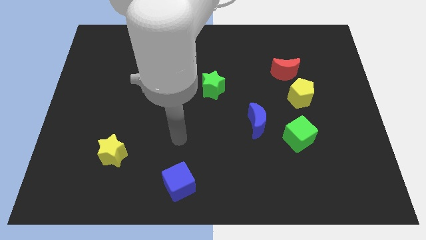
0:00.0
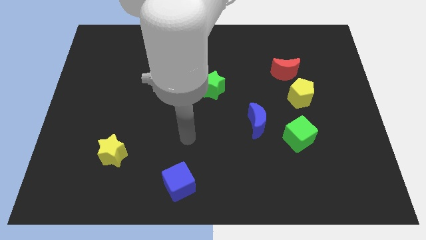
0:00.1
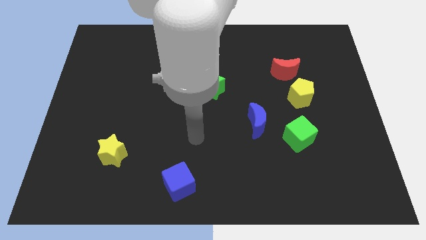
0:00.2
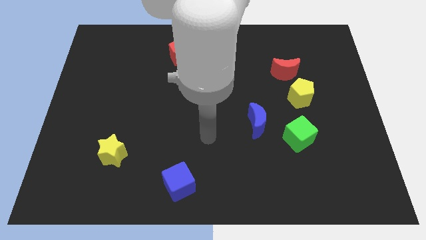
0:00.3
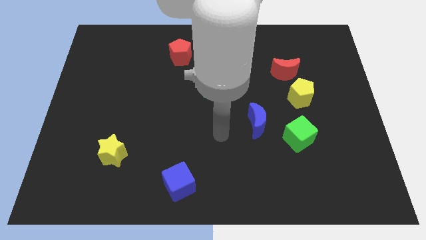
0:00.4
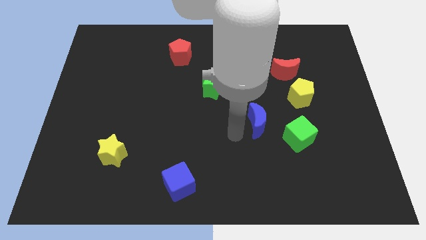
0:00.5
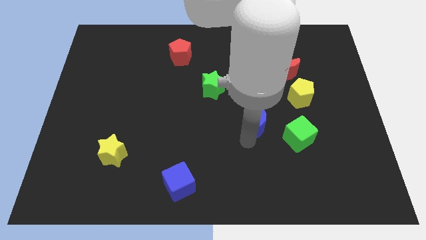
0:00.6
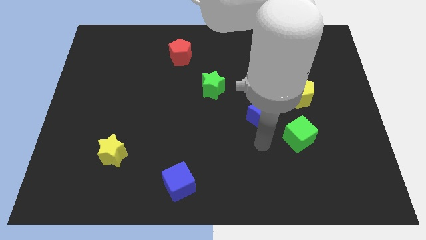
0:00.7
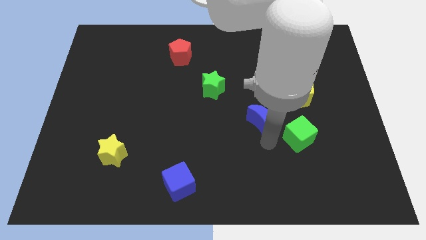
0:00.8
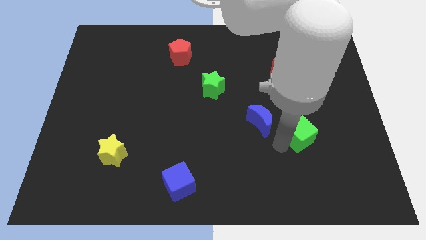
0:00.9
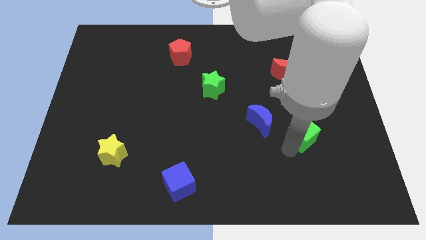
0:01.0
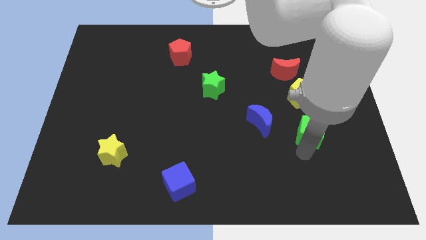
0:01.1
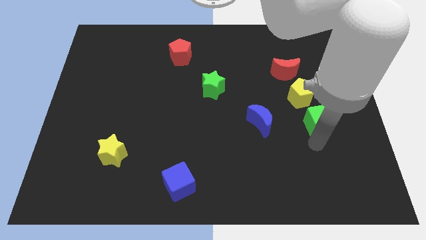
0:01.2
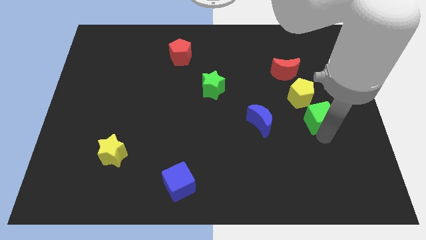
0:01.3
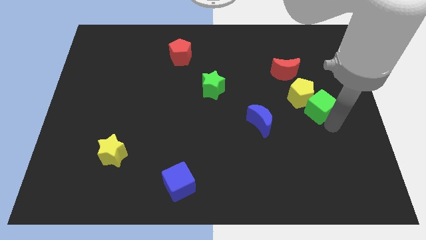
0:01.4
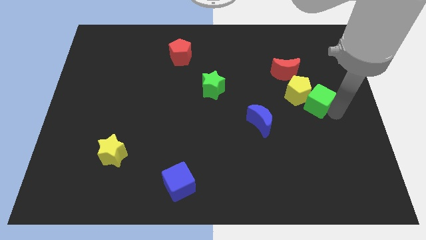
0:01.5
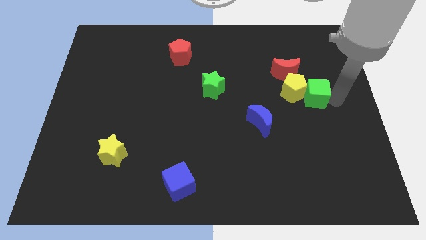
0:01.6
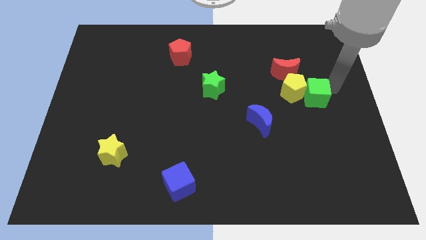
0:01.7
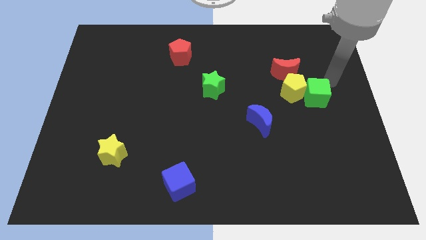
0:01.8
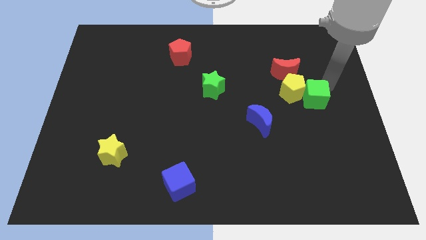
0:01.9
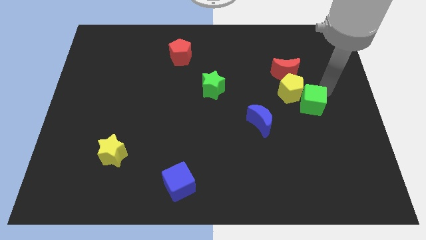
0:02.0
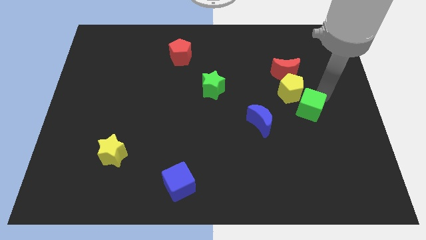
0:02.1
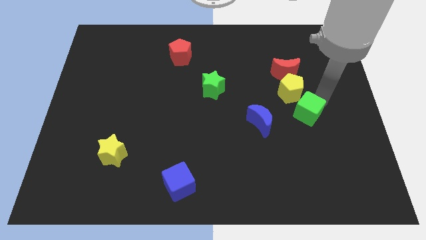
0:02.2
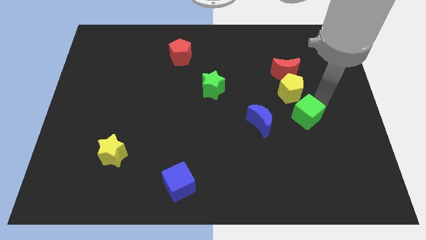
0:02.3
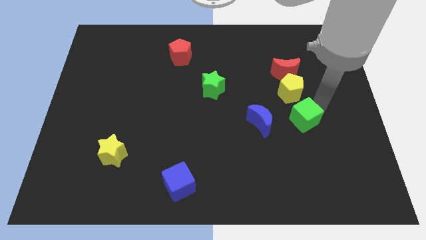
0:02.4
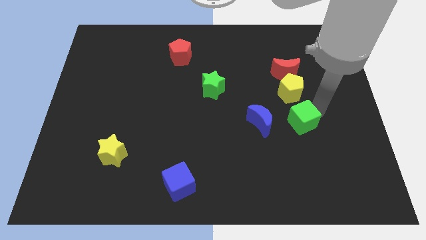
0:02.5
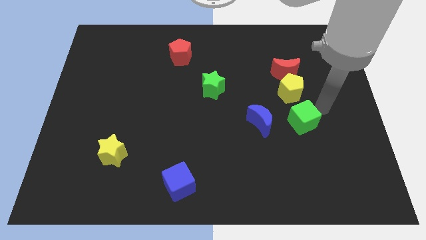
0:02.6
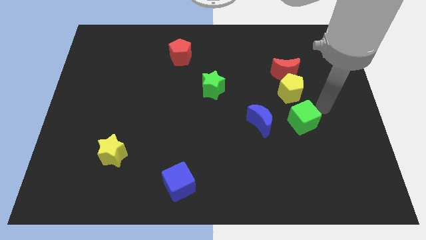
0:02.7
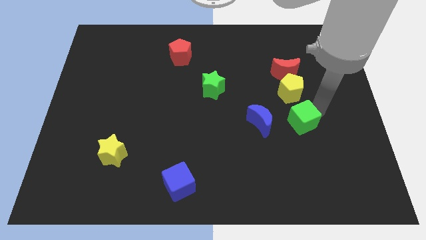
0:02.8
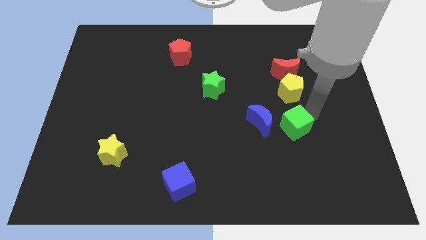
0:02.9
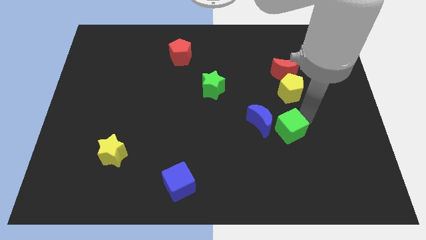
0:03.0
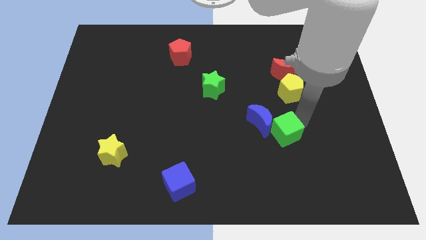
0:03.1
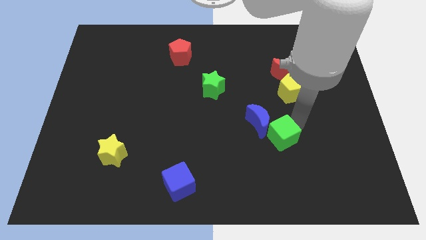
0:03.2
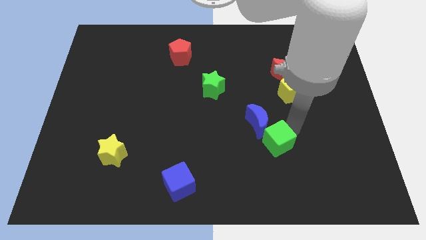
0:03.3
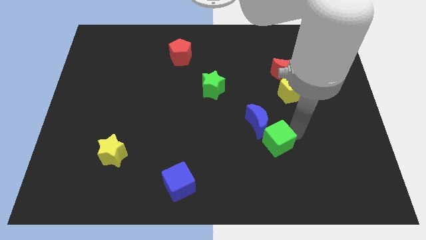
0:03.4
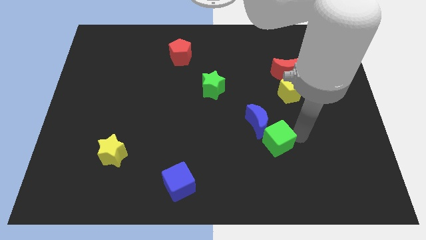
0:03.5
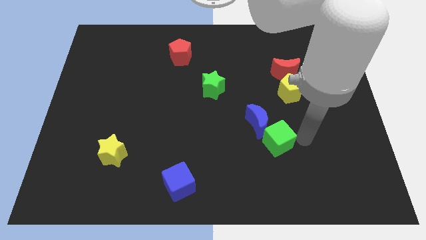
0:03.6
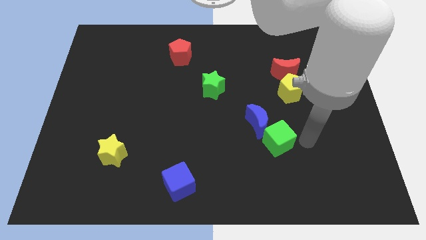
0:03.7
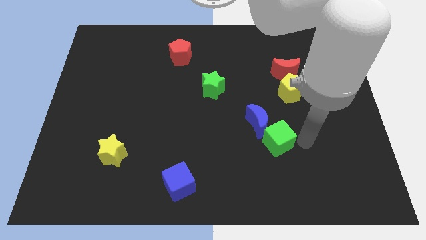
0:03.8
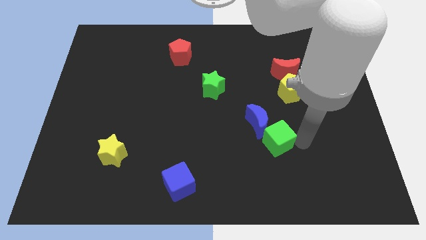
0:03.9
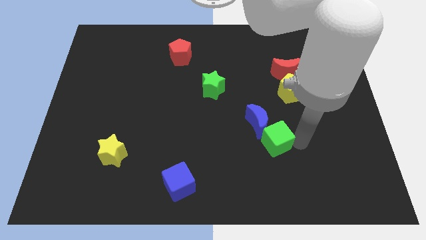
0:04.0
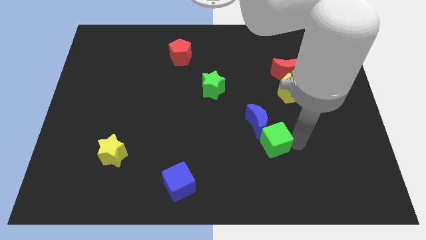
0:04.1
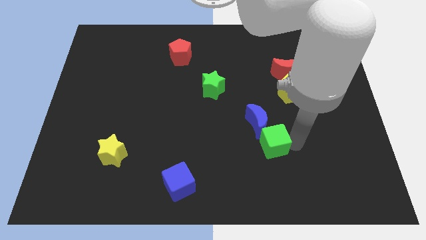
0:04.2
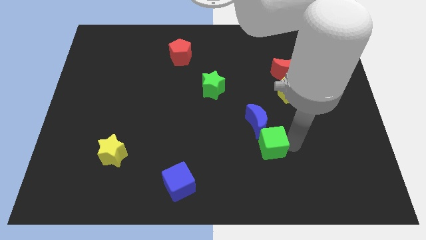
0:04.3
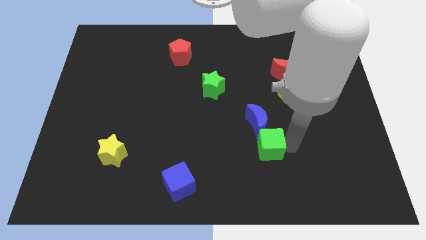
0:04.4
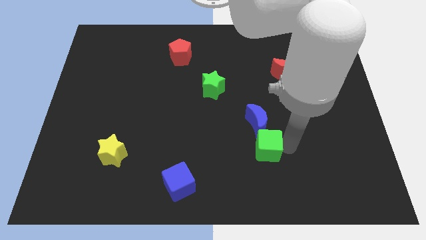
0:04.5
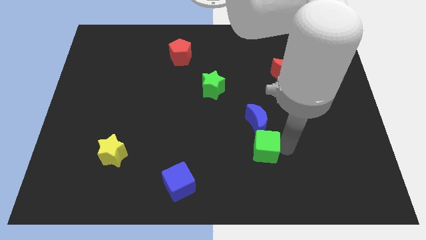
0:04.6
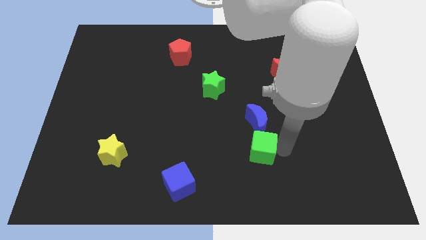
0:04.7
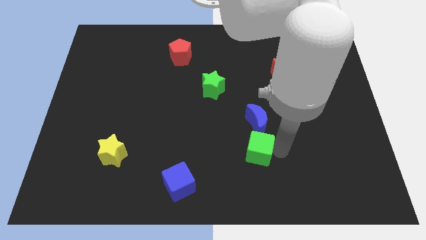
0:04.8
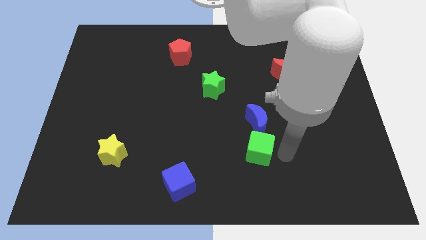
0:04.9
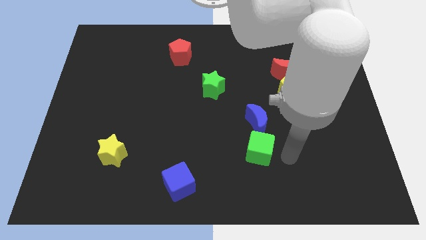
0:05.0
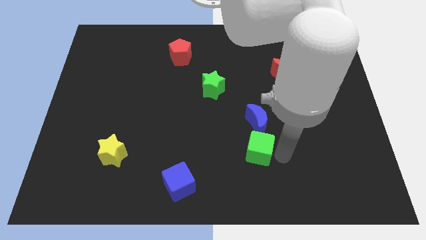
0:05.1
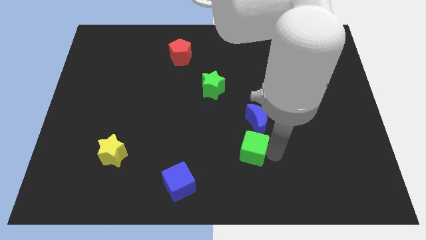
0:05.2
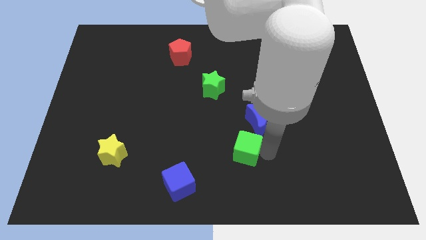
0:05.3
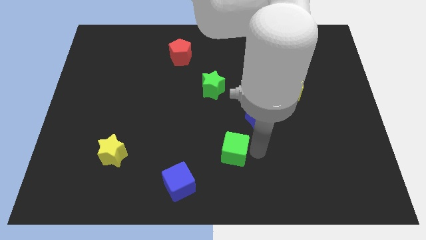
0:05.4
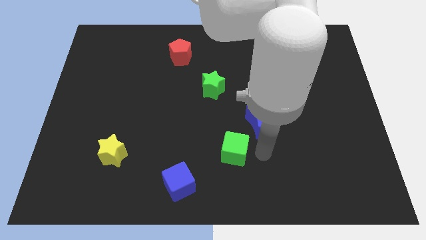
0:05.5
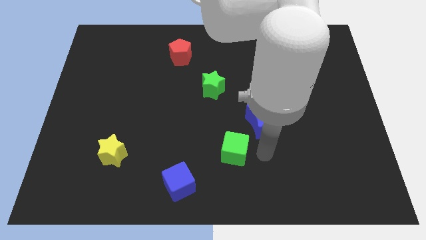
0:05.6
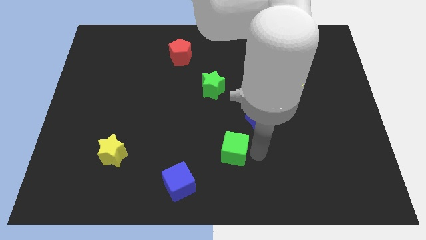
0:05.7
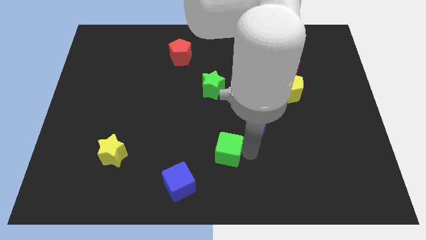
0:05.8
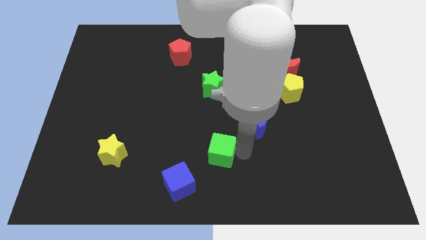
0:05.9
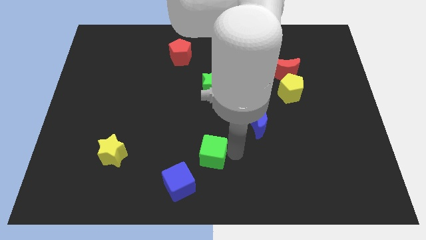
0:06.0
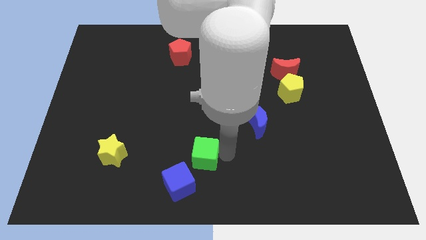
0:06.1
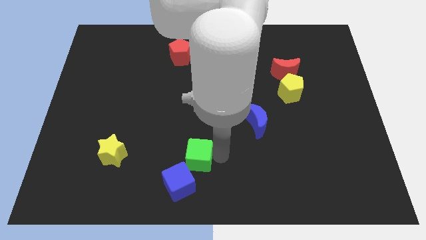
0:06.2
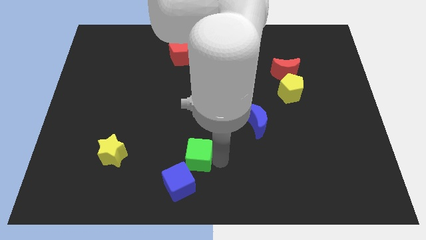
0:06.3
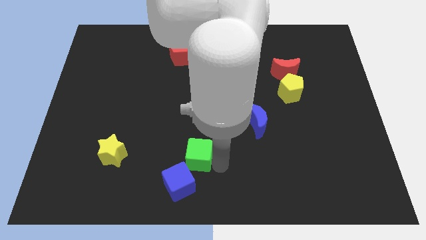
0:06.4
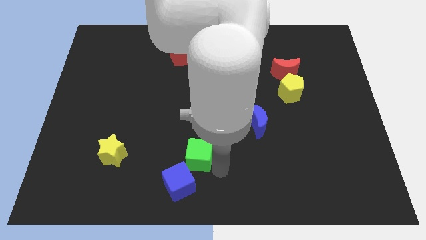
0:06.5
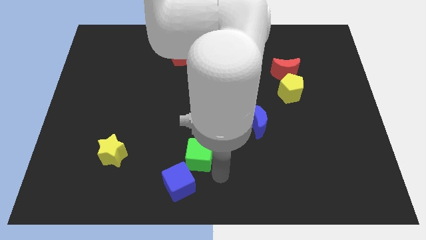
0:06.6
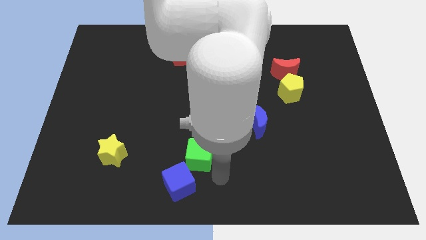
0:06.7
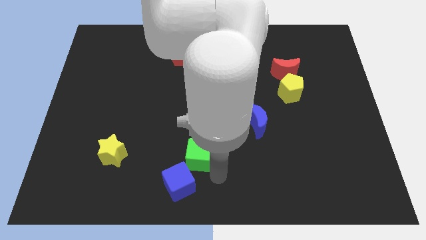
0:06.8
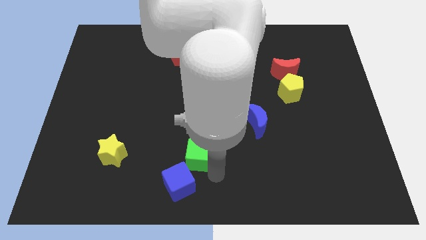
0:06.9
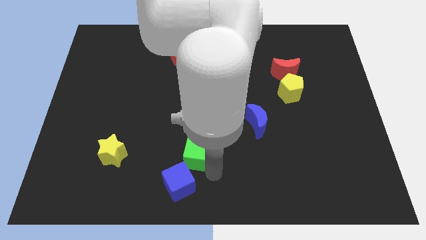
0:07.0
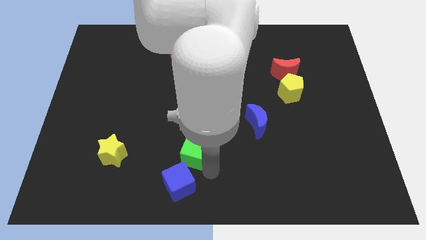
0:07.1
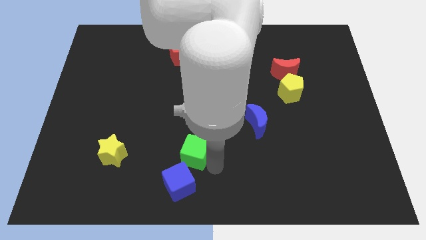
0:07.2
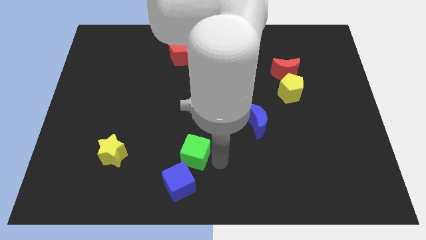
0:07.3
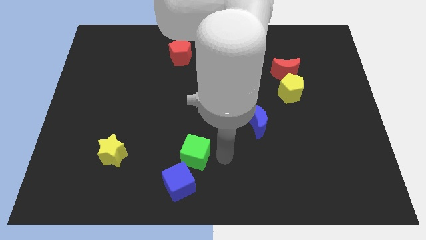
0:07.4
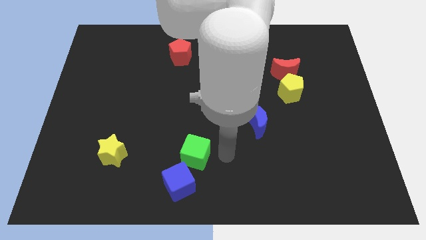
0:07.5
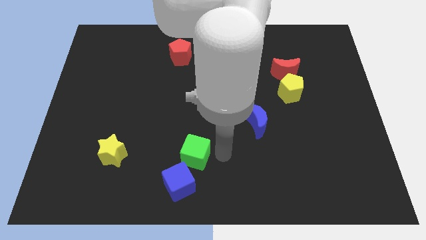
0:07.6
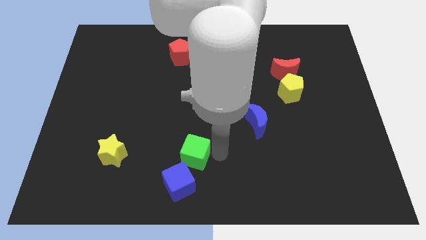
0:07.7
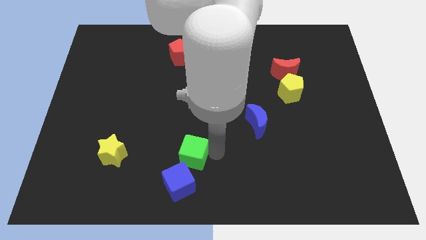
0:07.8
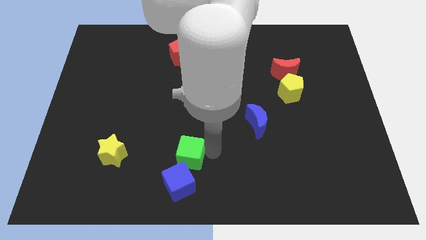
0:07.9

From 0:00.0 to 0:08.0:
put the green cube right of the yellow star
